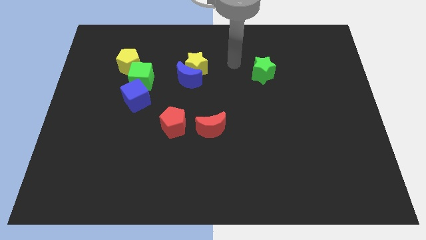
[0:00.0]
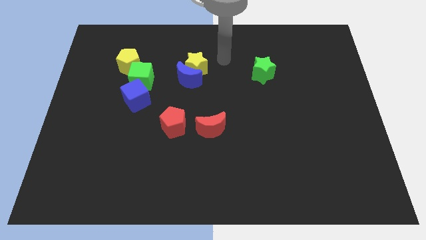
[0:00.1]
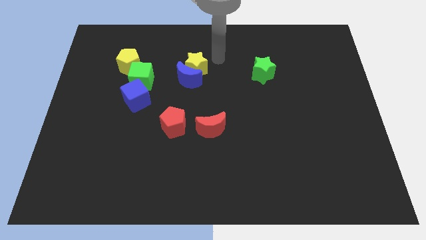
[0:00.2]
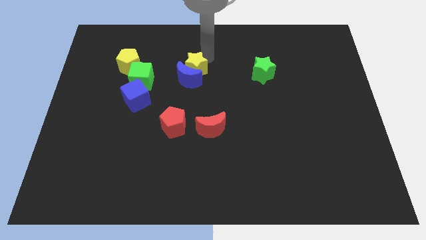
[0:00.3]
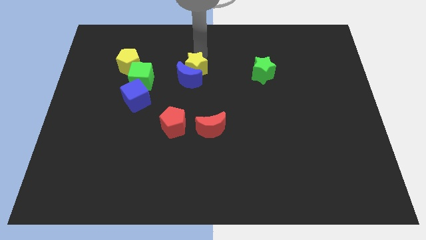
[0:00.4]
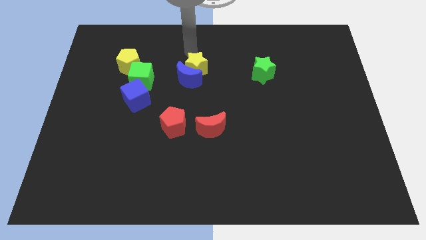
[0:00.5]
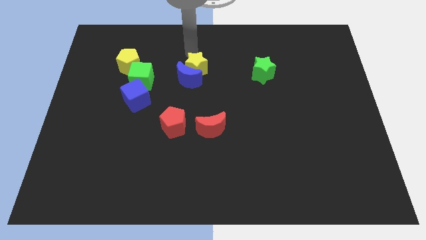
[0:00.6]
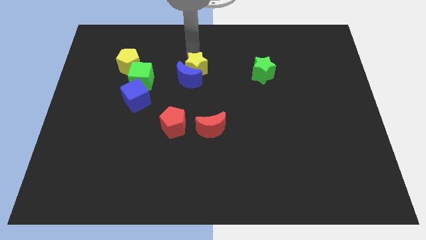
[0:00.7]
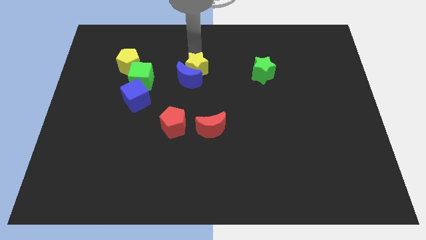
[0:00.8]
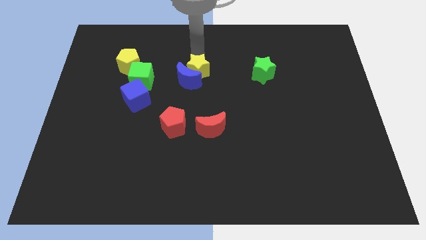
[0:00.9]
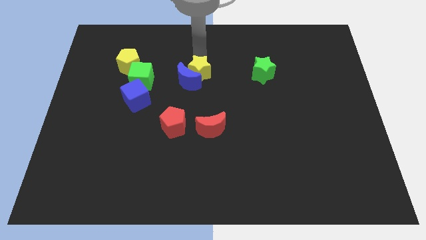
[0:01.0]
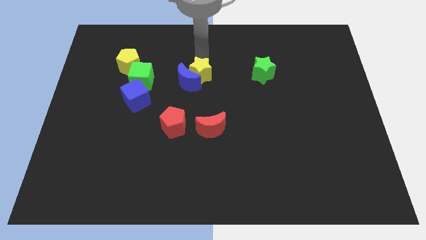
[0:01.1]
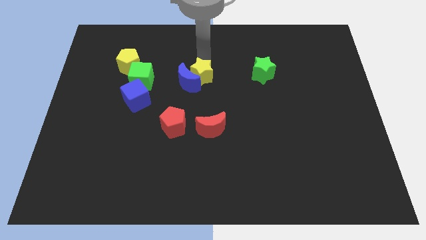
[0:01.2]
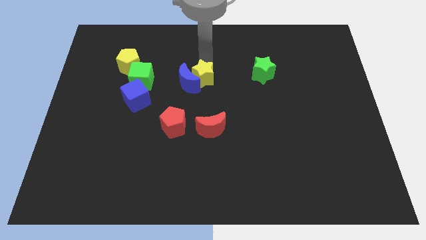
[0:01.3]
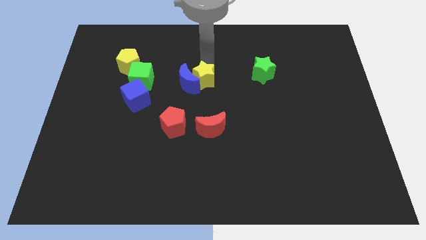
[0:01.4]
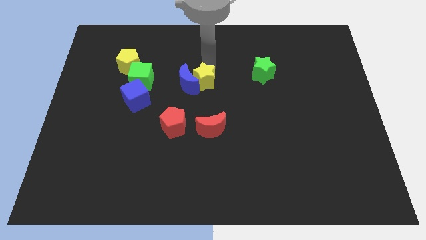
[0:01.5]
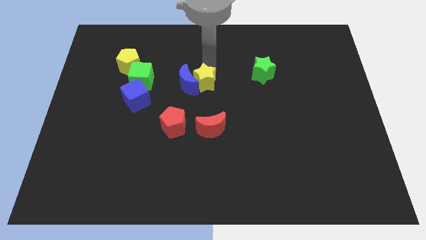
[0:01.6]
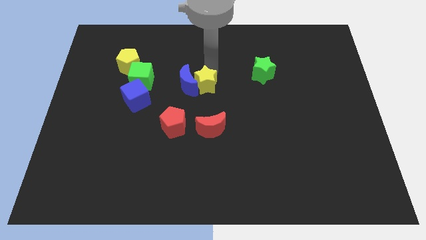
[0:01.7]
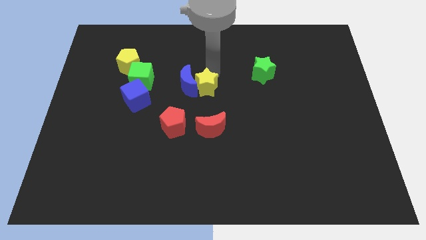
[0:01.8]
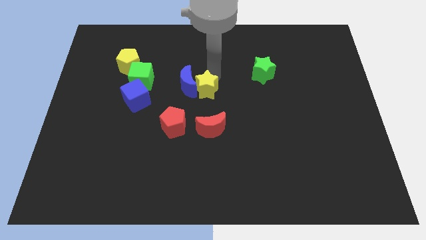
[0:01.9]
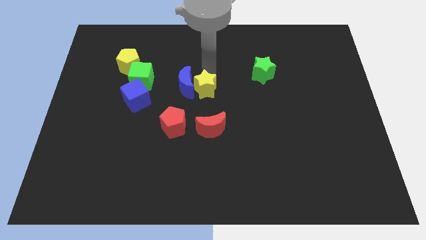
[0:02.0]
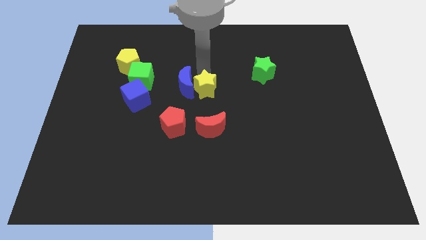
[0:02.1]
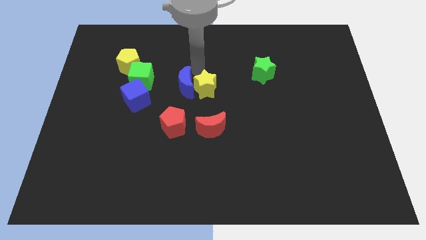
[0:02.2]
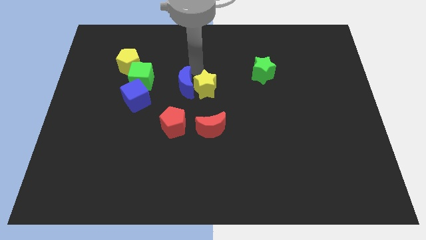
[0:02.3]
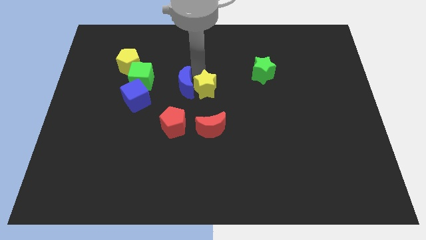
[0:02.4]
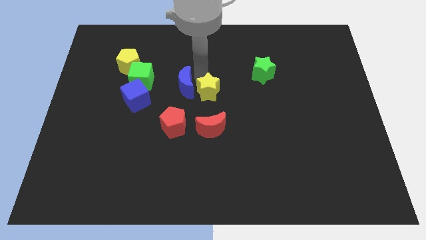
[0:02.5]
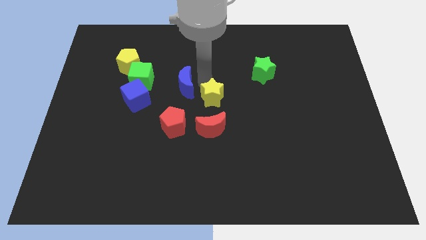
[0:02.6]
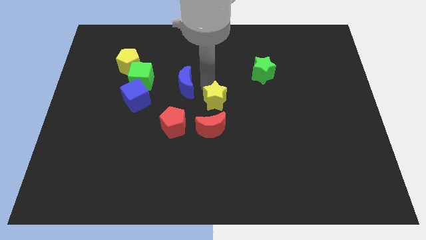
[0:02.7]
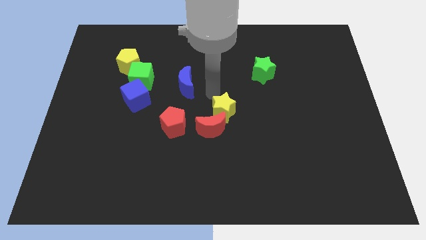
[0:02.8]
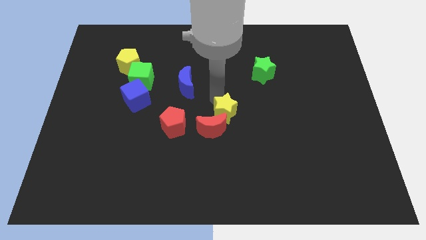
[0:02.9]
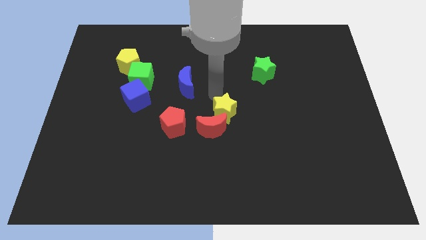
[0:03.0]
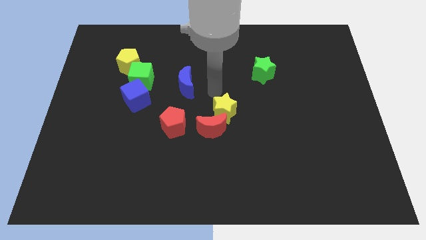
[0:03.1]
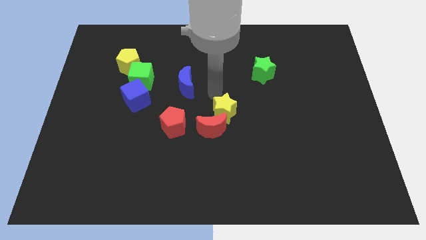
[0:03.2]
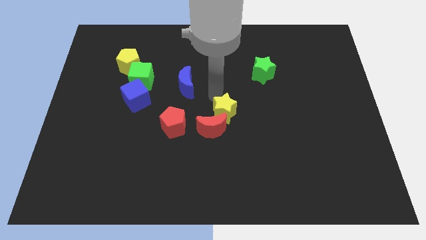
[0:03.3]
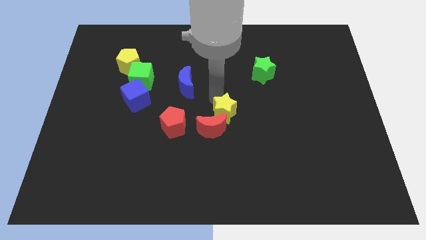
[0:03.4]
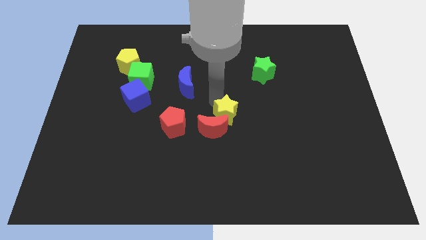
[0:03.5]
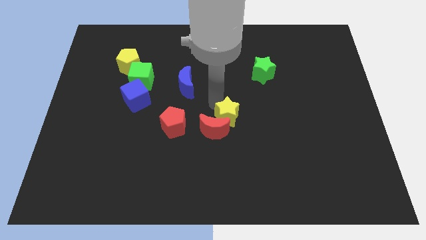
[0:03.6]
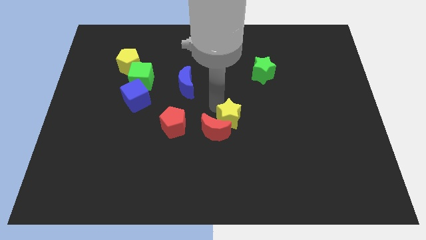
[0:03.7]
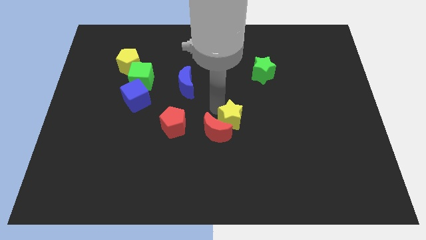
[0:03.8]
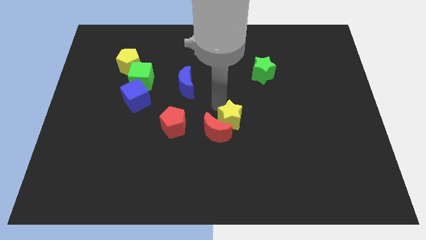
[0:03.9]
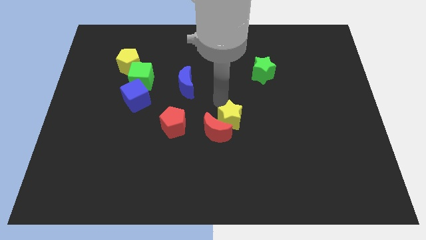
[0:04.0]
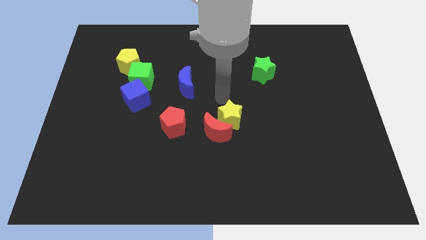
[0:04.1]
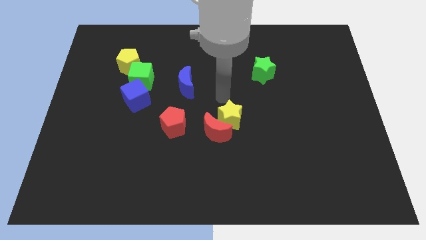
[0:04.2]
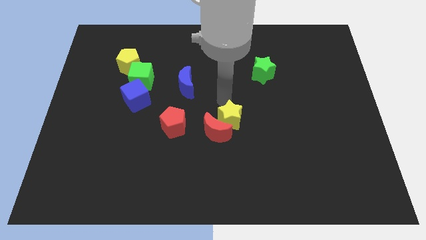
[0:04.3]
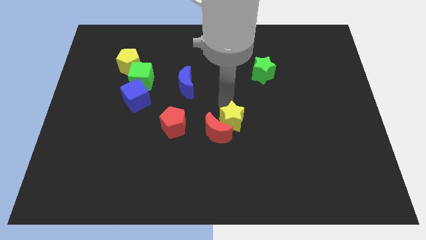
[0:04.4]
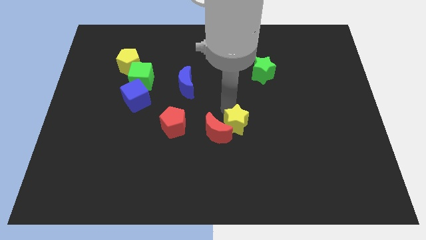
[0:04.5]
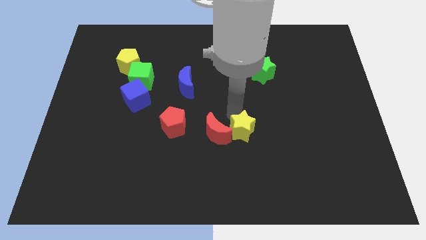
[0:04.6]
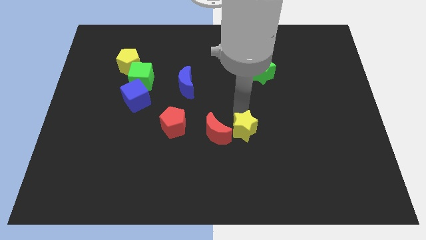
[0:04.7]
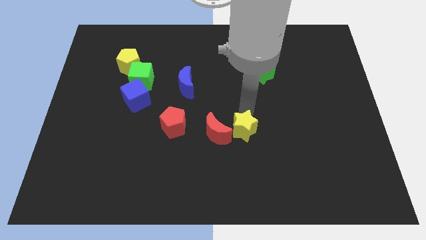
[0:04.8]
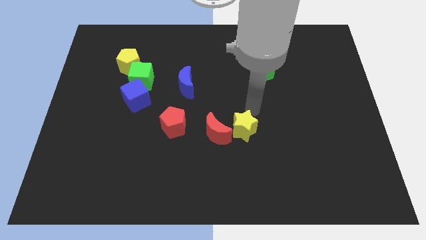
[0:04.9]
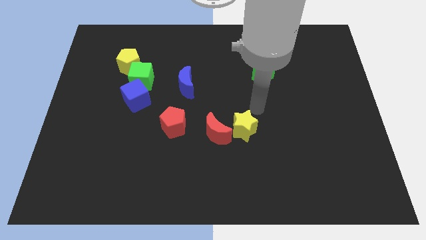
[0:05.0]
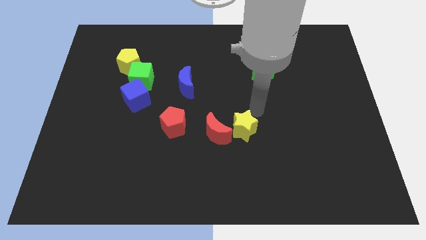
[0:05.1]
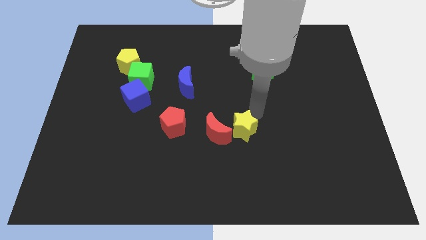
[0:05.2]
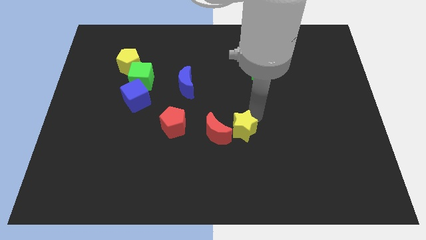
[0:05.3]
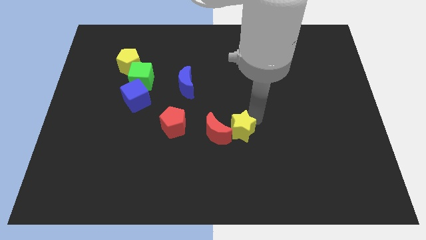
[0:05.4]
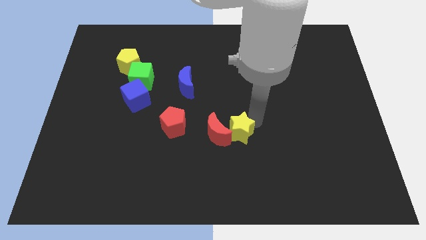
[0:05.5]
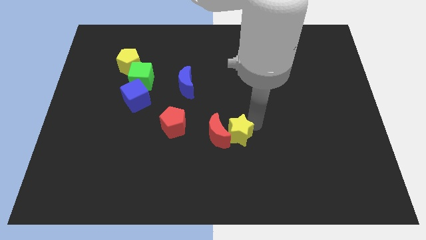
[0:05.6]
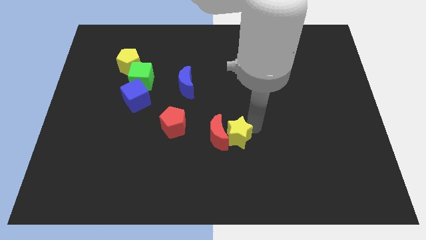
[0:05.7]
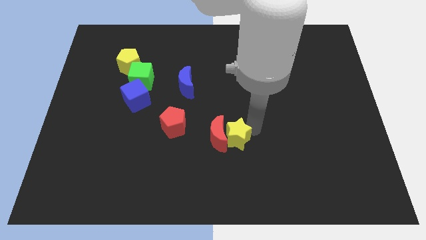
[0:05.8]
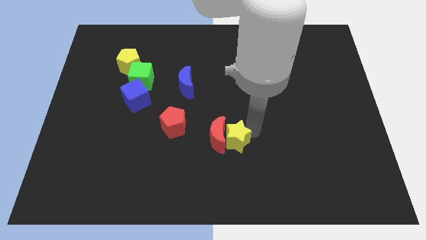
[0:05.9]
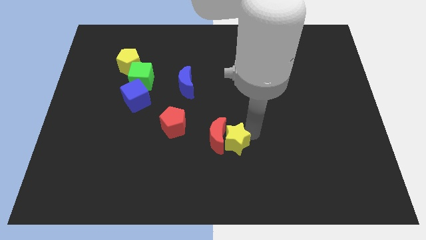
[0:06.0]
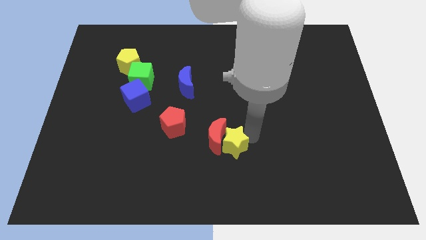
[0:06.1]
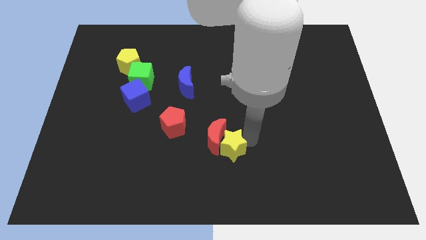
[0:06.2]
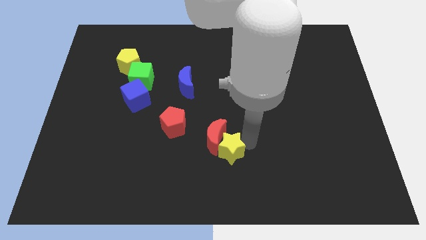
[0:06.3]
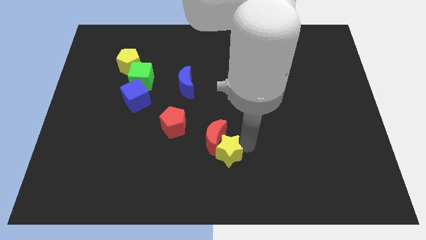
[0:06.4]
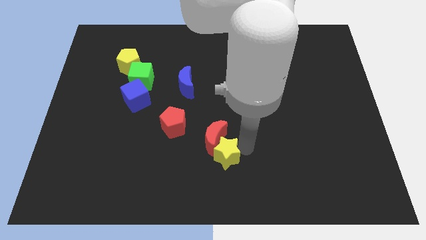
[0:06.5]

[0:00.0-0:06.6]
slide the yellow star to the bottom side
